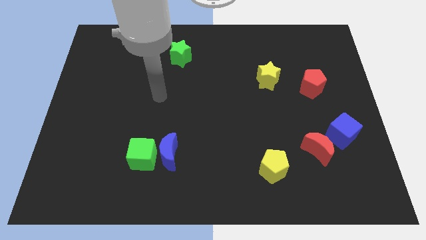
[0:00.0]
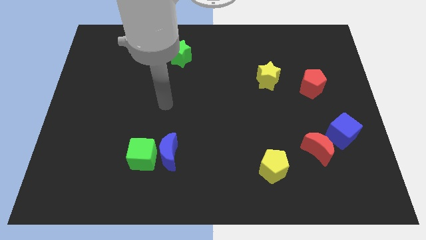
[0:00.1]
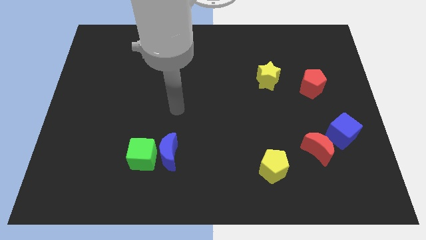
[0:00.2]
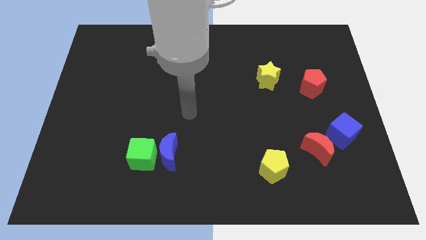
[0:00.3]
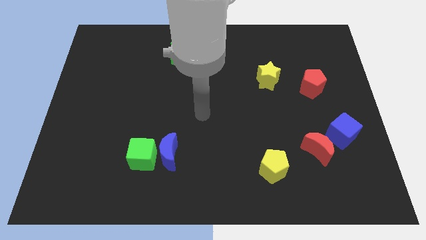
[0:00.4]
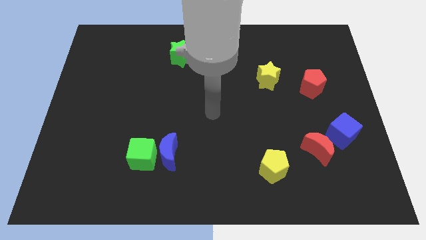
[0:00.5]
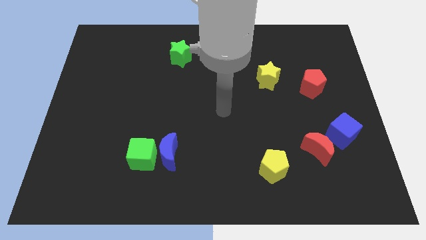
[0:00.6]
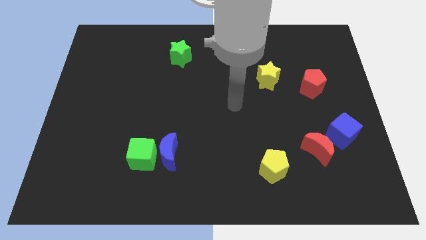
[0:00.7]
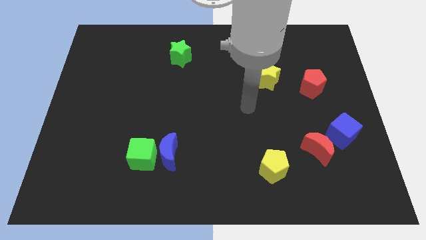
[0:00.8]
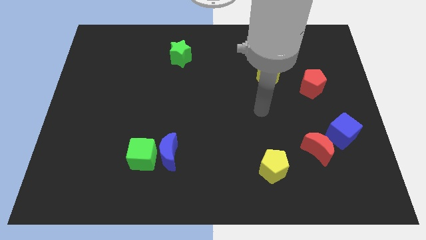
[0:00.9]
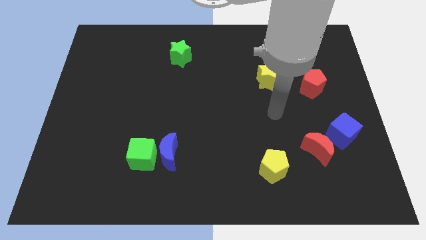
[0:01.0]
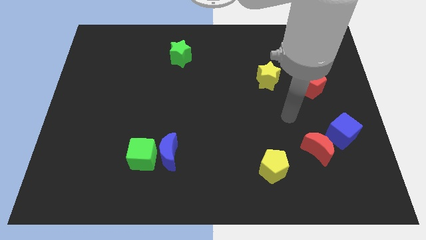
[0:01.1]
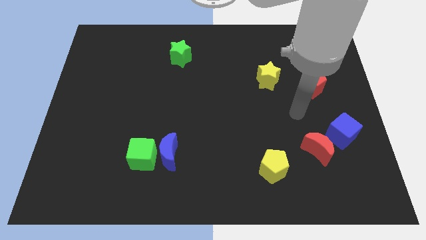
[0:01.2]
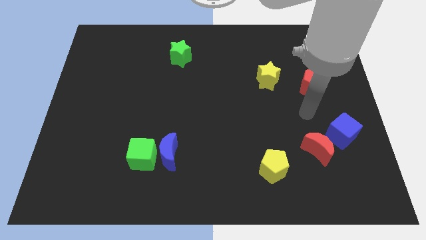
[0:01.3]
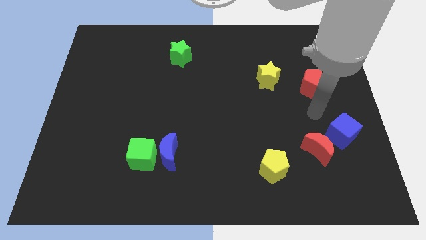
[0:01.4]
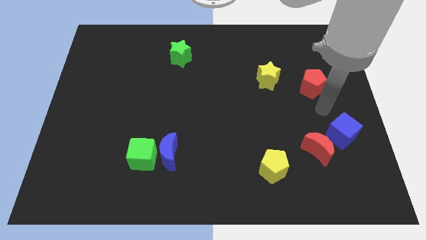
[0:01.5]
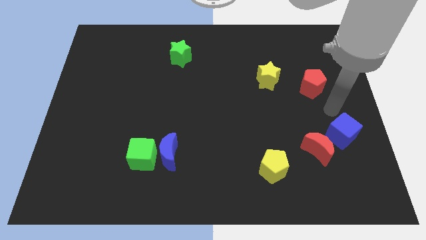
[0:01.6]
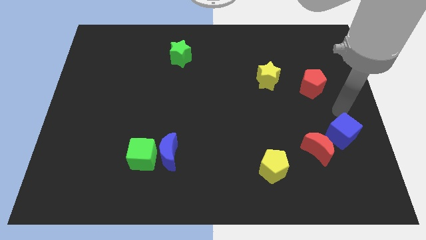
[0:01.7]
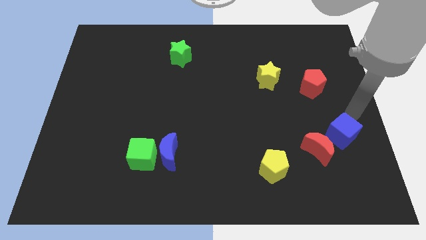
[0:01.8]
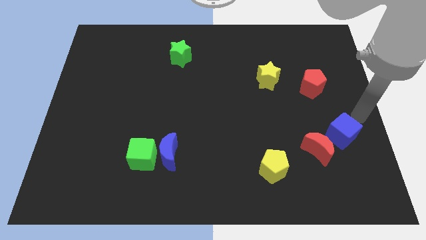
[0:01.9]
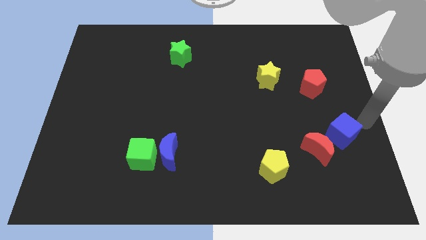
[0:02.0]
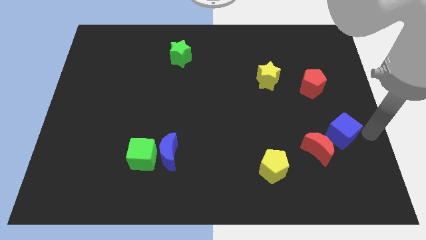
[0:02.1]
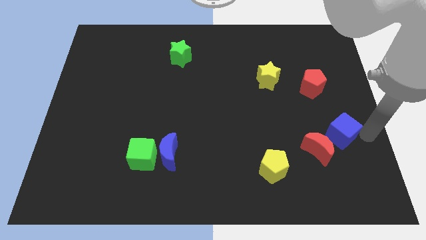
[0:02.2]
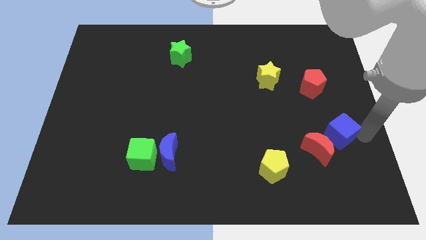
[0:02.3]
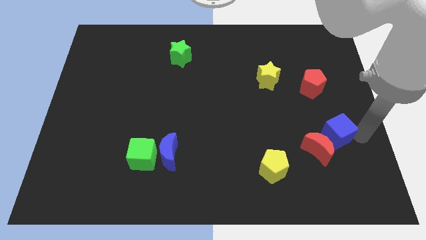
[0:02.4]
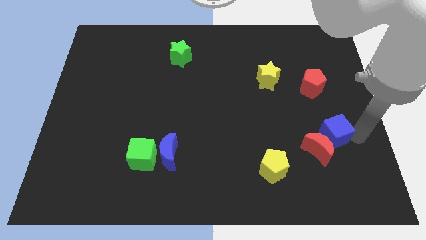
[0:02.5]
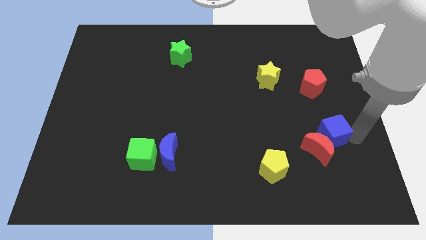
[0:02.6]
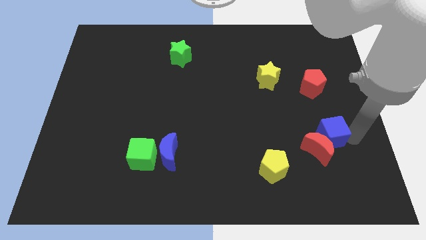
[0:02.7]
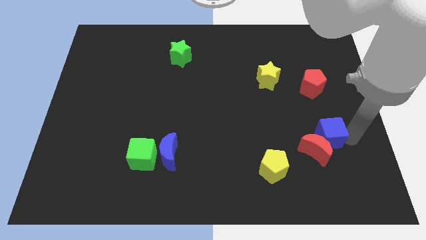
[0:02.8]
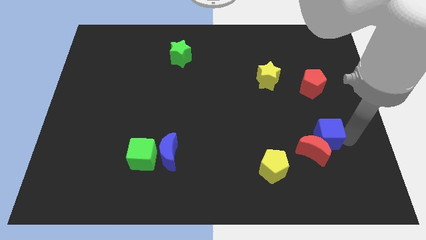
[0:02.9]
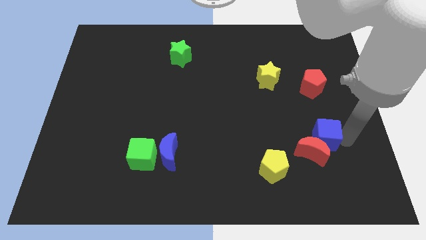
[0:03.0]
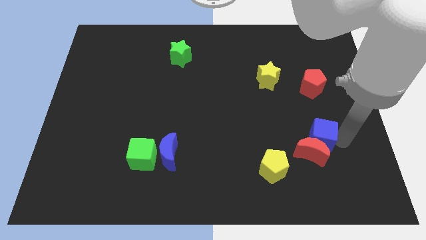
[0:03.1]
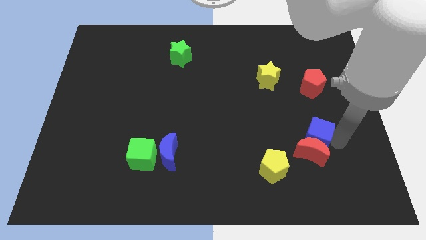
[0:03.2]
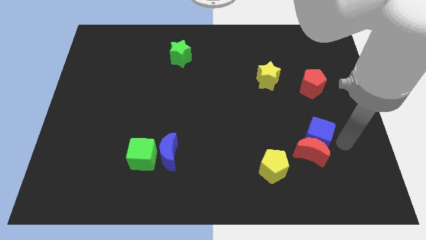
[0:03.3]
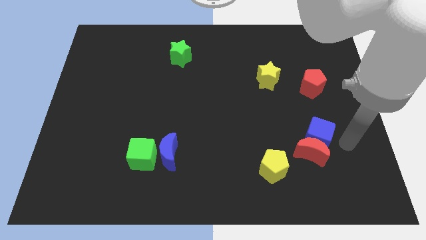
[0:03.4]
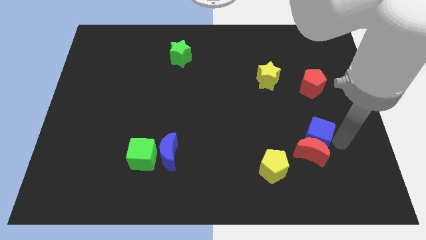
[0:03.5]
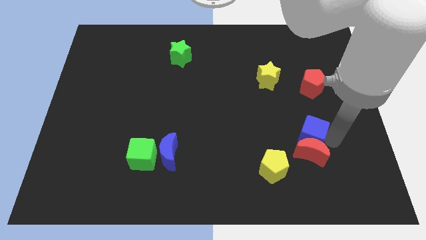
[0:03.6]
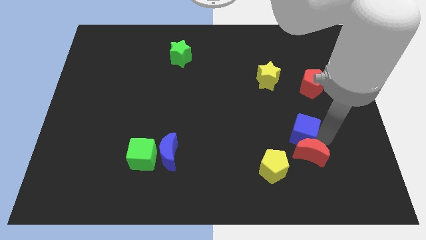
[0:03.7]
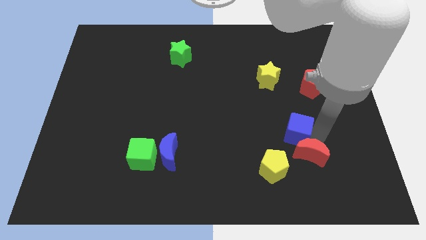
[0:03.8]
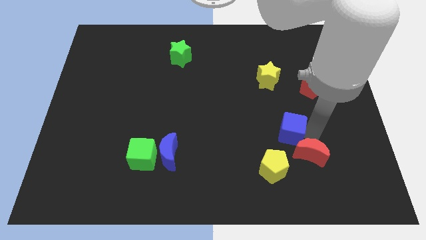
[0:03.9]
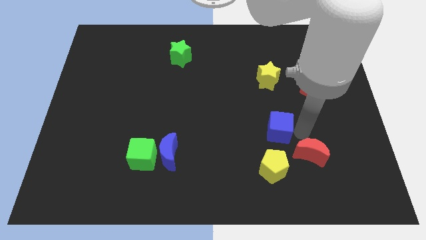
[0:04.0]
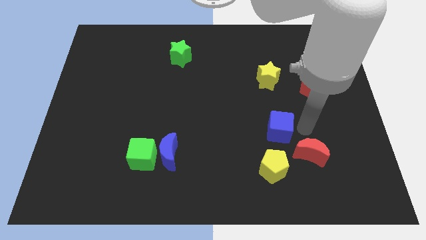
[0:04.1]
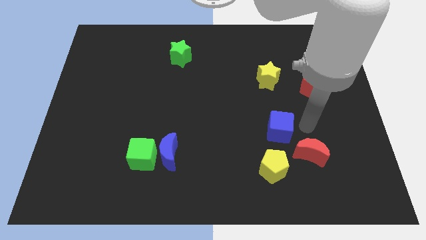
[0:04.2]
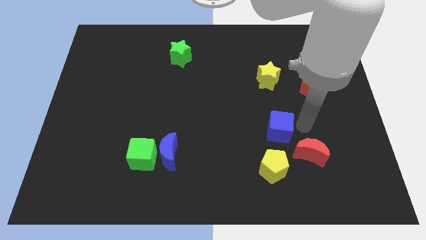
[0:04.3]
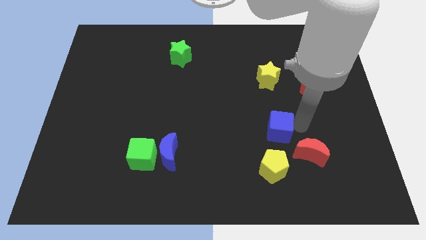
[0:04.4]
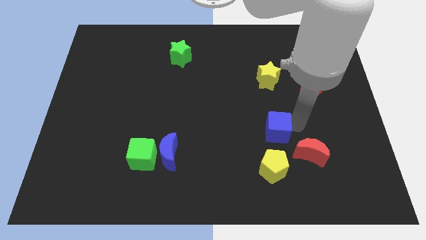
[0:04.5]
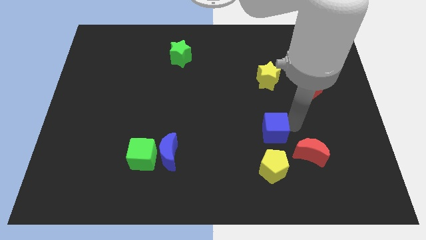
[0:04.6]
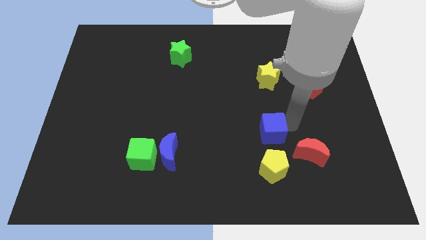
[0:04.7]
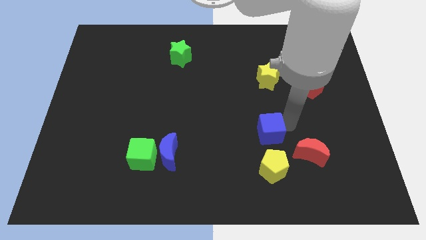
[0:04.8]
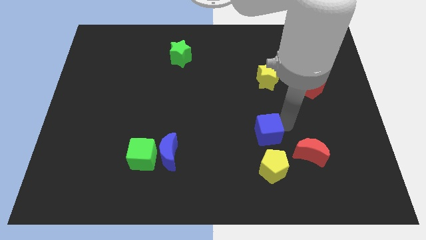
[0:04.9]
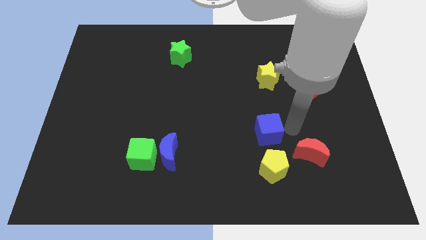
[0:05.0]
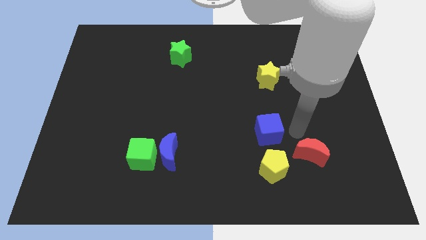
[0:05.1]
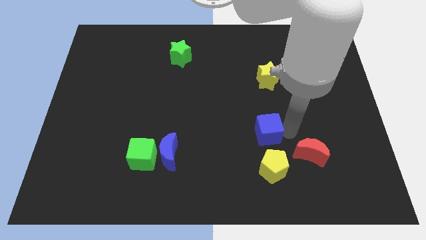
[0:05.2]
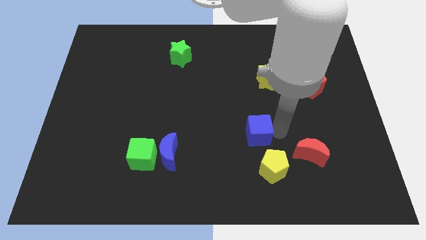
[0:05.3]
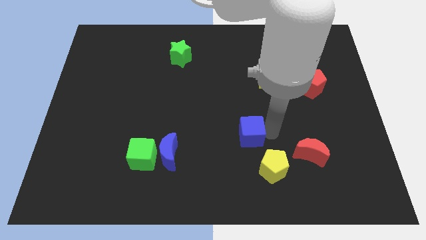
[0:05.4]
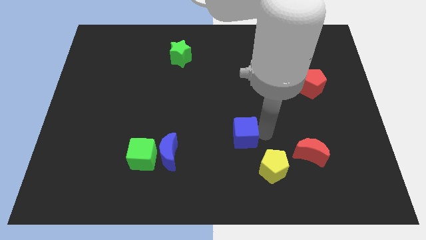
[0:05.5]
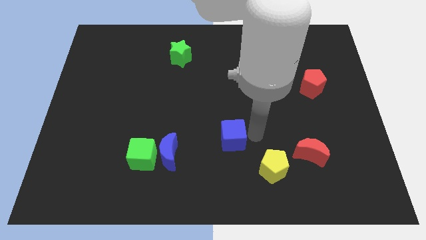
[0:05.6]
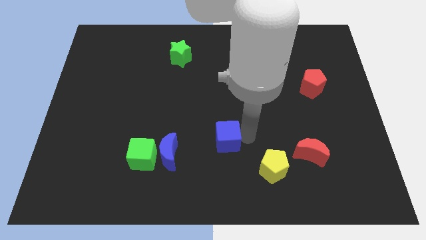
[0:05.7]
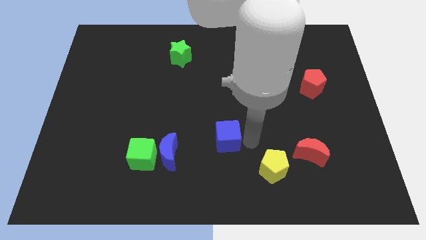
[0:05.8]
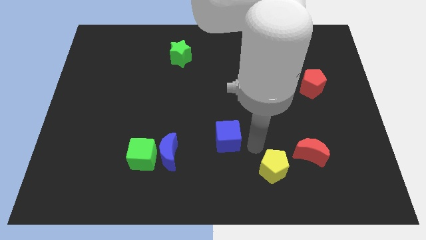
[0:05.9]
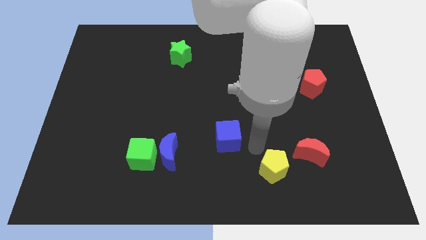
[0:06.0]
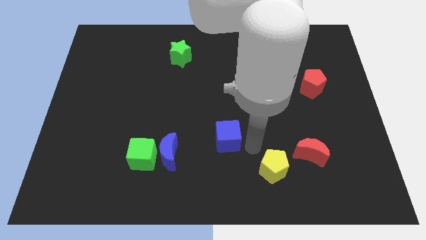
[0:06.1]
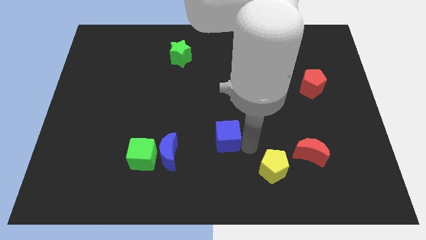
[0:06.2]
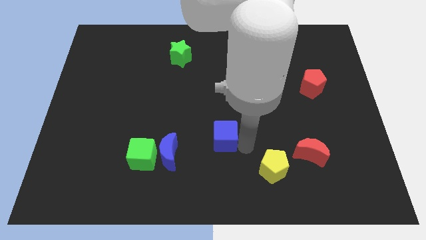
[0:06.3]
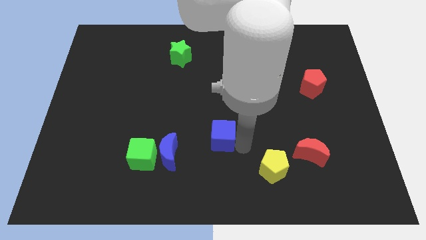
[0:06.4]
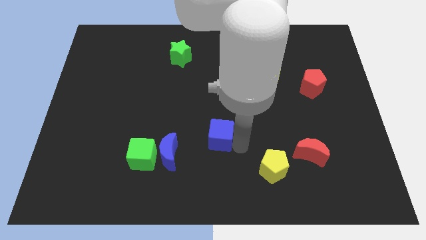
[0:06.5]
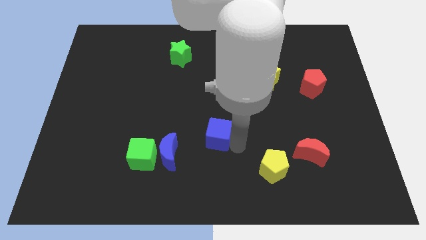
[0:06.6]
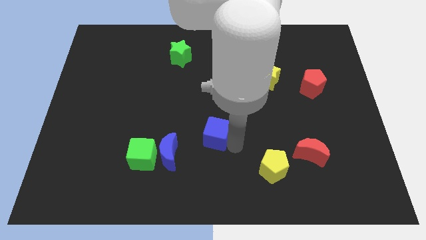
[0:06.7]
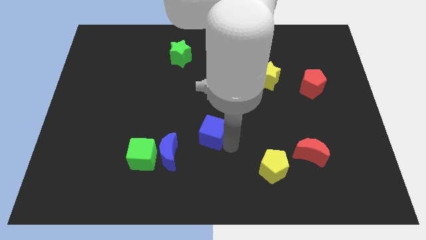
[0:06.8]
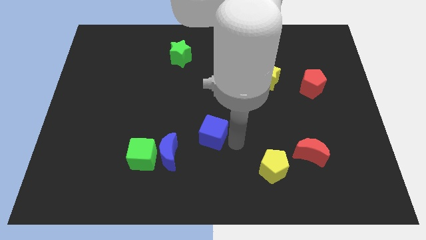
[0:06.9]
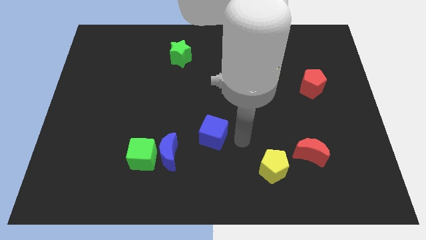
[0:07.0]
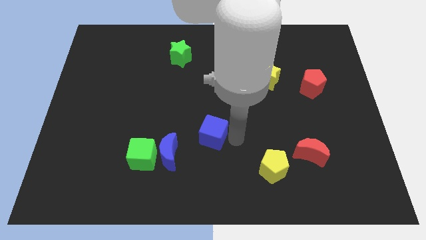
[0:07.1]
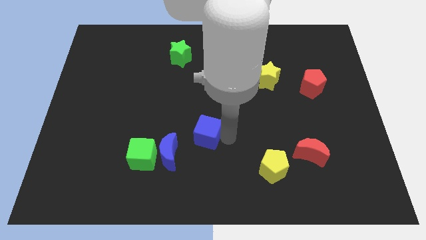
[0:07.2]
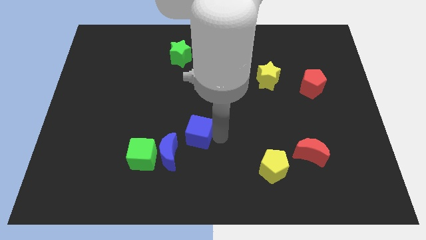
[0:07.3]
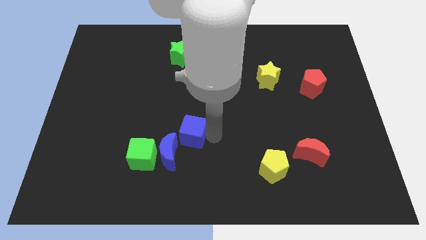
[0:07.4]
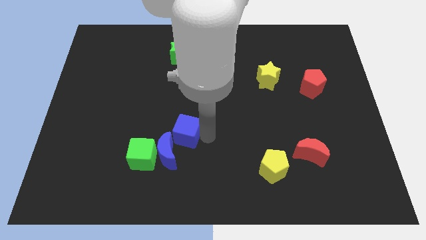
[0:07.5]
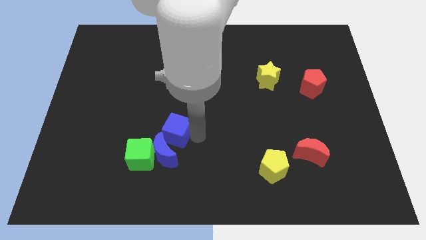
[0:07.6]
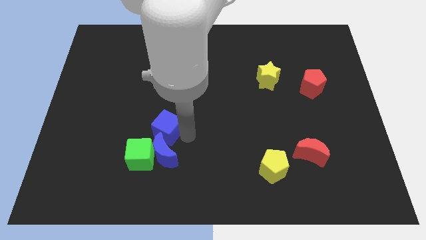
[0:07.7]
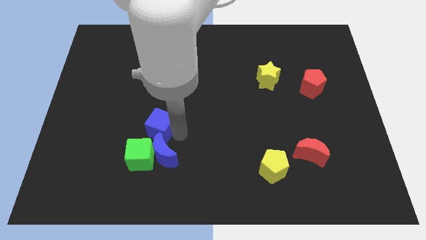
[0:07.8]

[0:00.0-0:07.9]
slide the blue cube to the top side of the green cube
